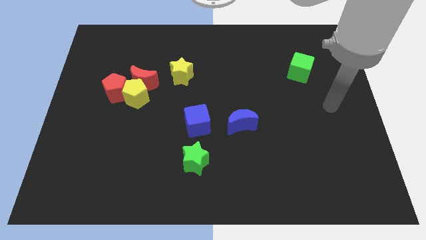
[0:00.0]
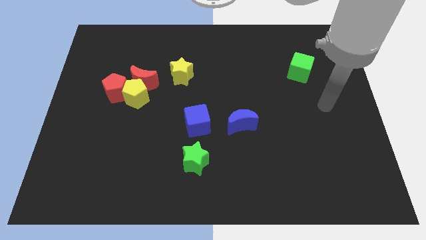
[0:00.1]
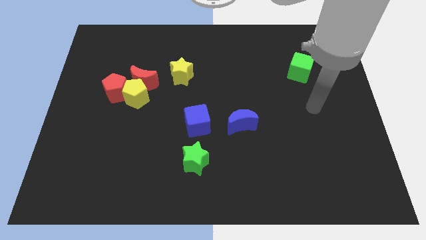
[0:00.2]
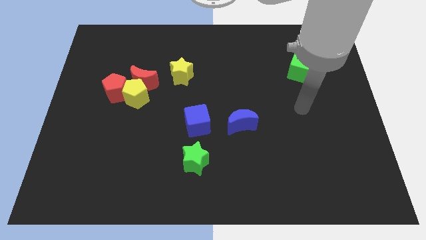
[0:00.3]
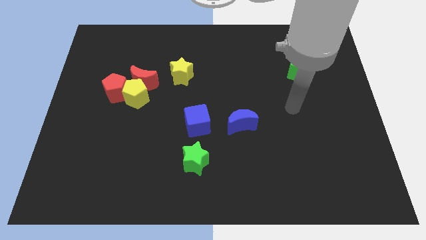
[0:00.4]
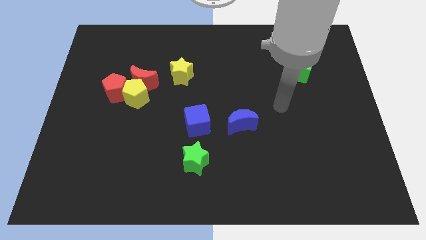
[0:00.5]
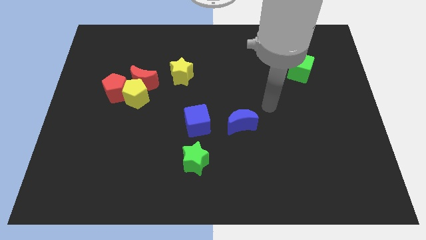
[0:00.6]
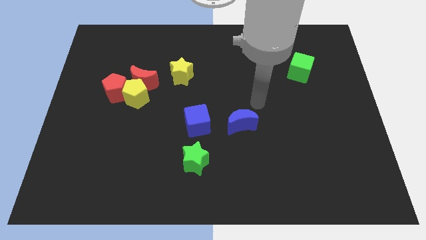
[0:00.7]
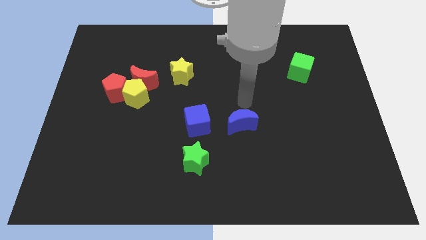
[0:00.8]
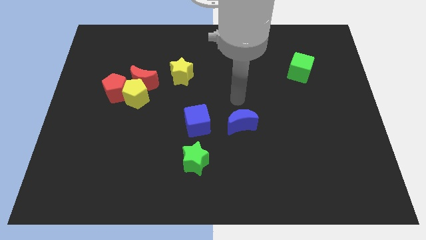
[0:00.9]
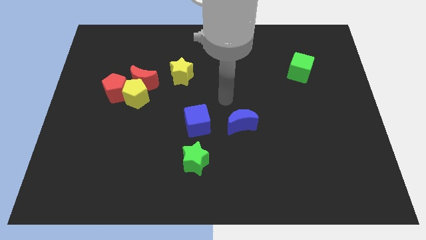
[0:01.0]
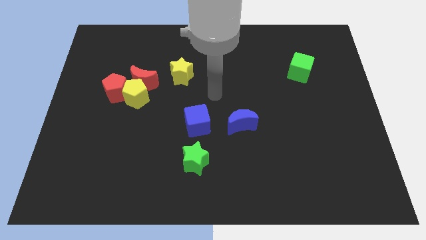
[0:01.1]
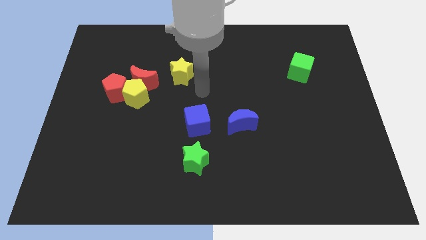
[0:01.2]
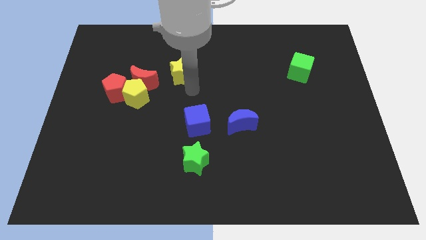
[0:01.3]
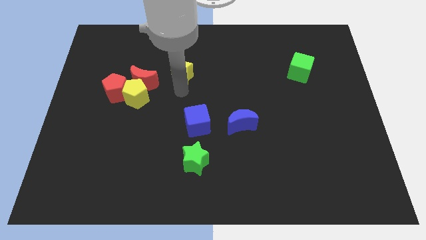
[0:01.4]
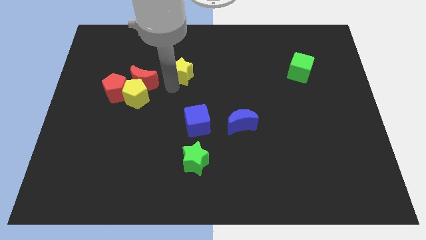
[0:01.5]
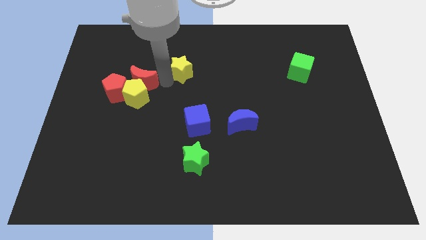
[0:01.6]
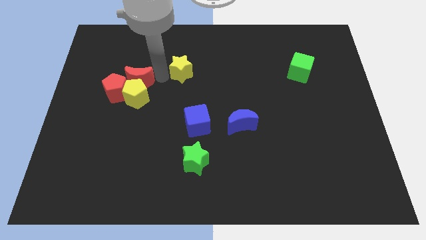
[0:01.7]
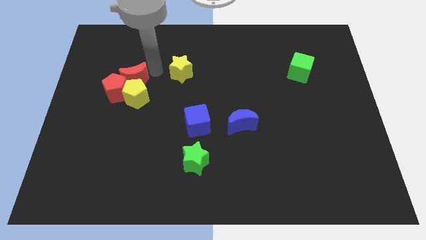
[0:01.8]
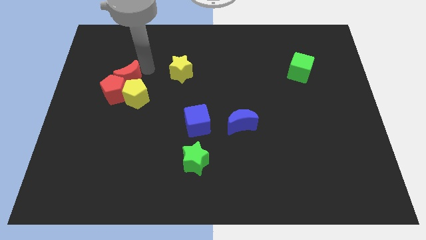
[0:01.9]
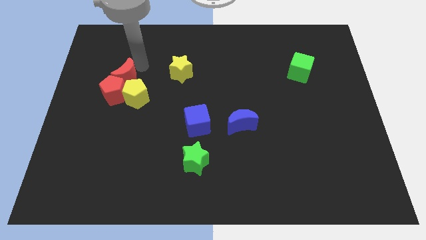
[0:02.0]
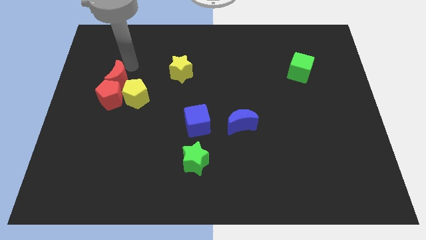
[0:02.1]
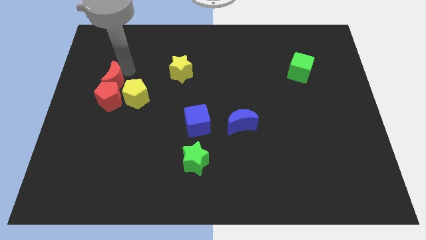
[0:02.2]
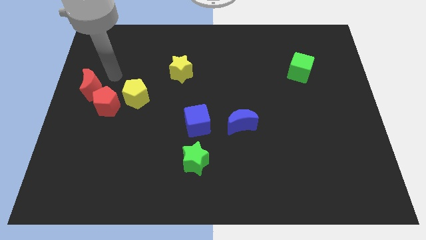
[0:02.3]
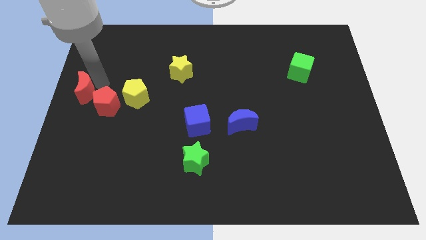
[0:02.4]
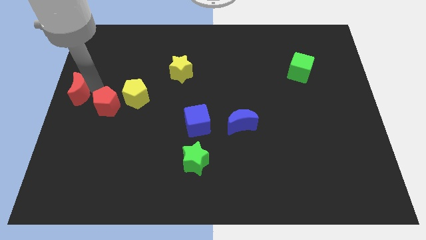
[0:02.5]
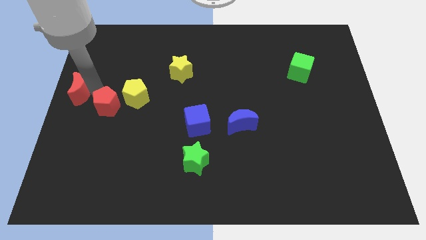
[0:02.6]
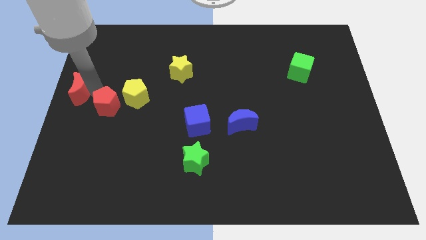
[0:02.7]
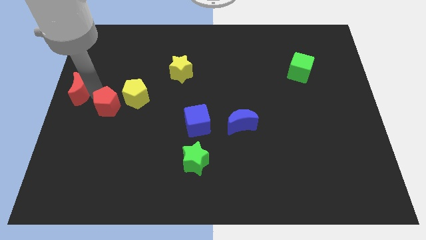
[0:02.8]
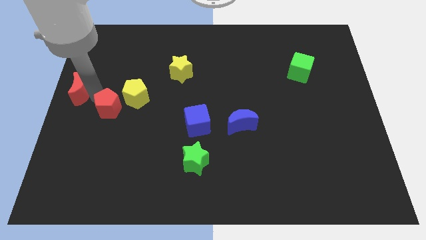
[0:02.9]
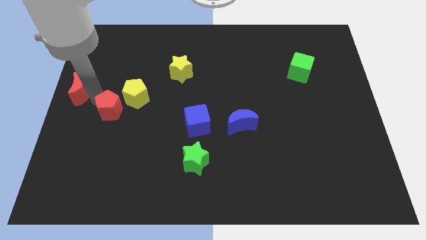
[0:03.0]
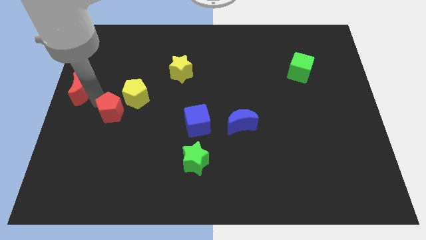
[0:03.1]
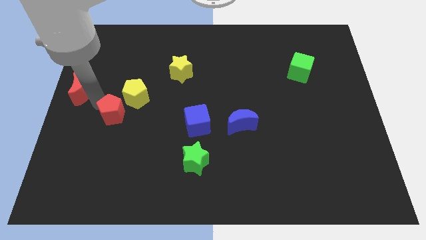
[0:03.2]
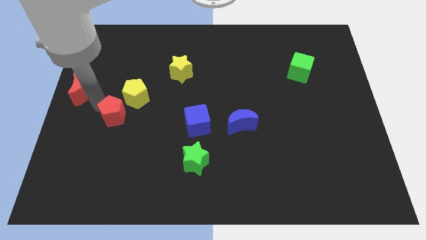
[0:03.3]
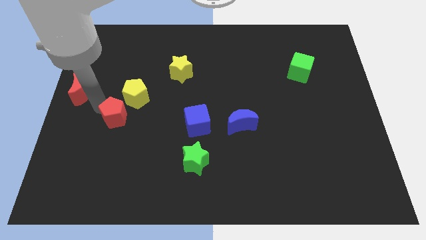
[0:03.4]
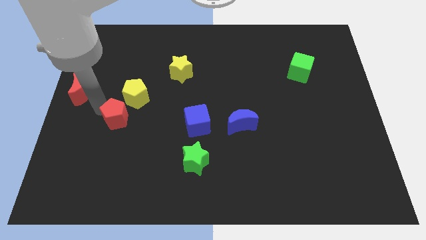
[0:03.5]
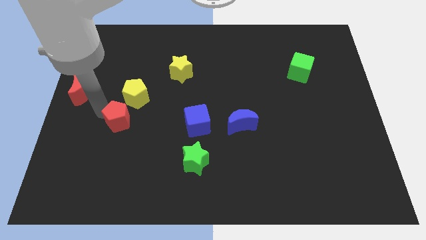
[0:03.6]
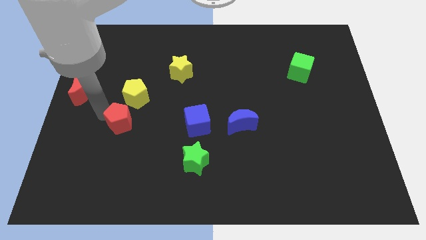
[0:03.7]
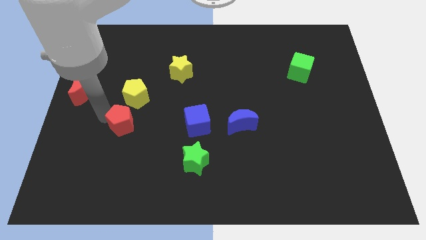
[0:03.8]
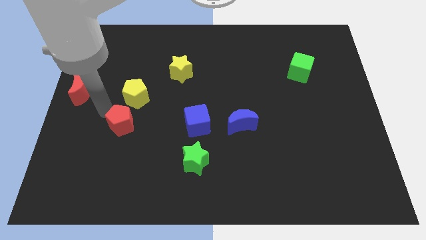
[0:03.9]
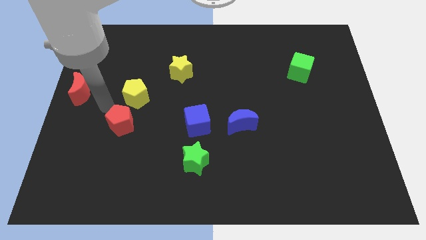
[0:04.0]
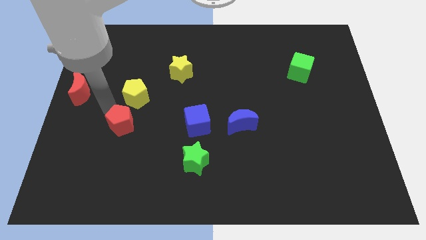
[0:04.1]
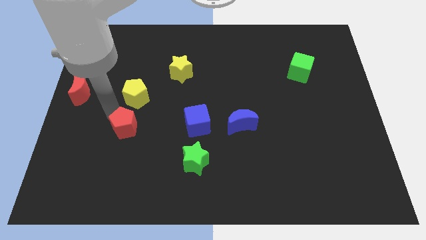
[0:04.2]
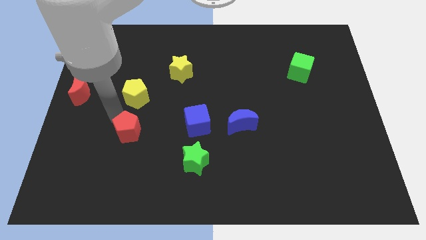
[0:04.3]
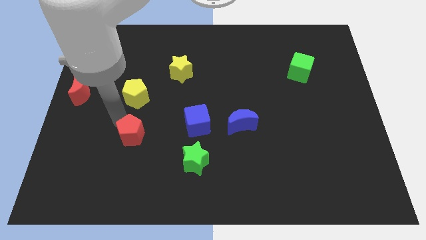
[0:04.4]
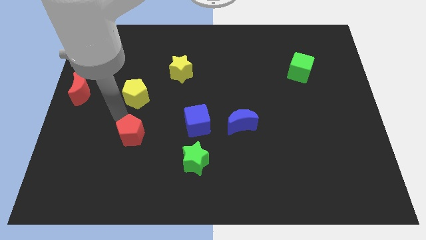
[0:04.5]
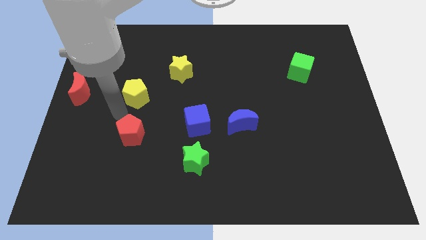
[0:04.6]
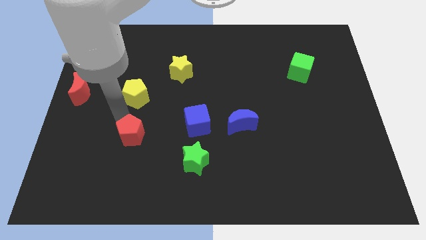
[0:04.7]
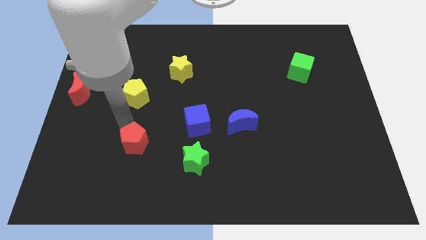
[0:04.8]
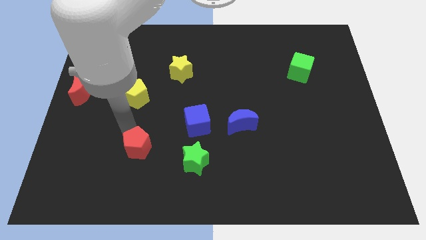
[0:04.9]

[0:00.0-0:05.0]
slide the red pentagon just left of the green star

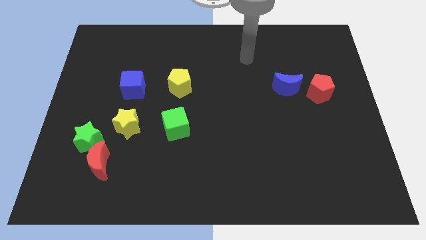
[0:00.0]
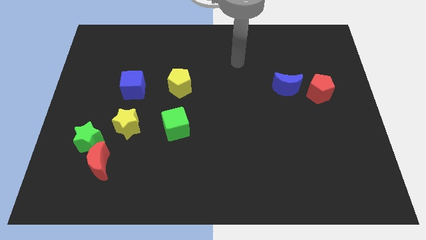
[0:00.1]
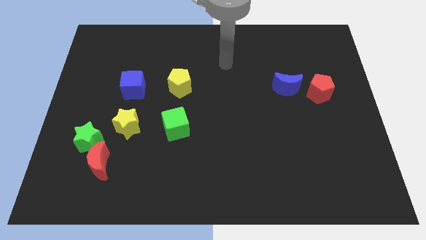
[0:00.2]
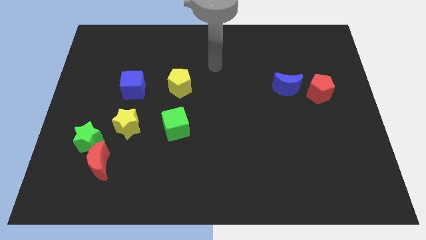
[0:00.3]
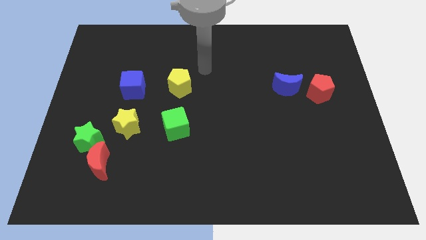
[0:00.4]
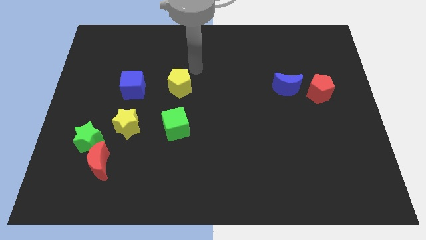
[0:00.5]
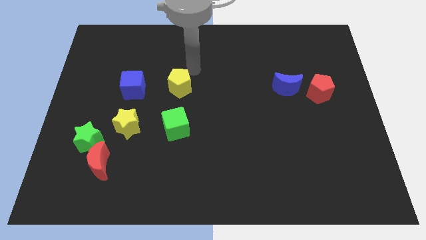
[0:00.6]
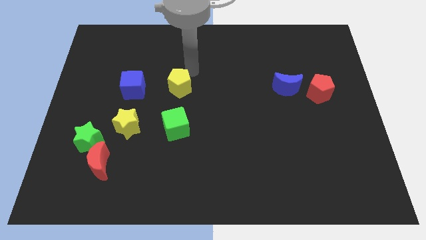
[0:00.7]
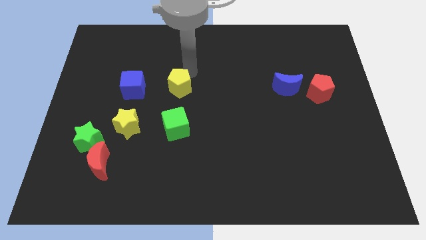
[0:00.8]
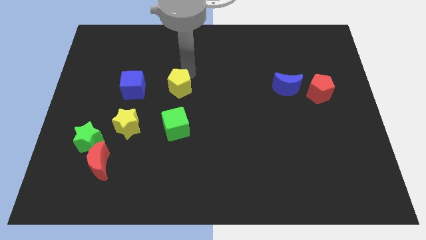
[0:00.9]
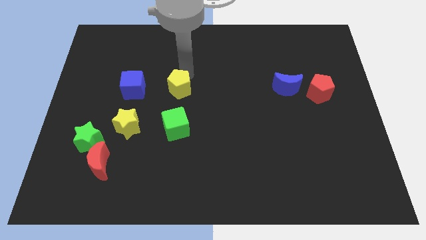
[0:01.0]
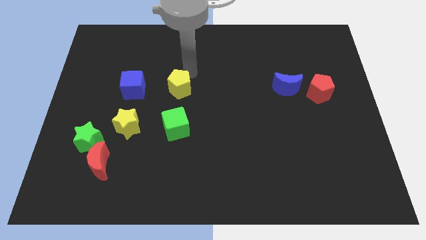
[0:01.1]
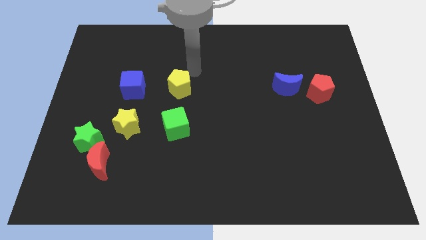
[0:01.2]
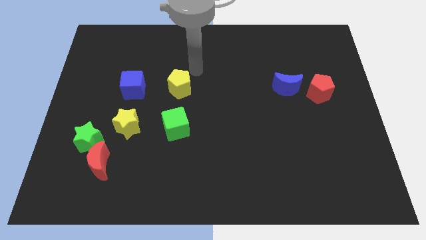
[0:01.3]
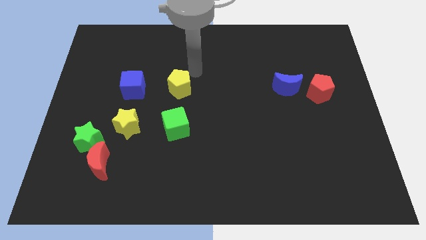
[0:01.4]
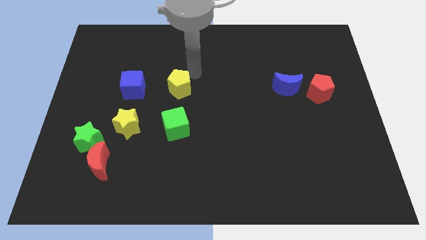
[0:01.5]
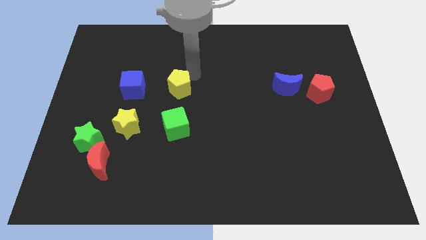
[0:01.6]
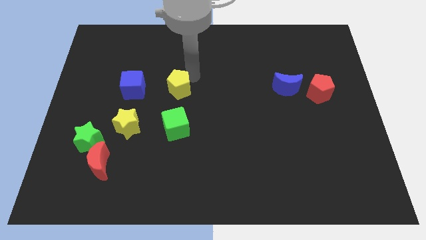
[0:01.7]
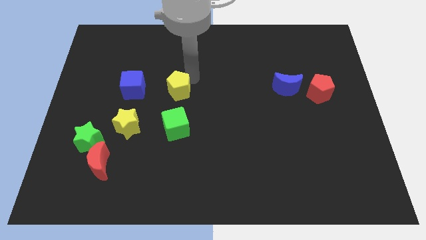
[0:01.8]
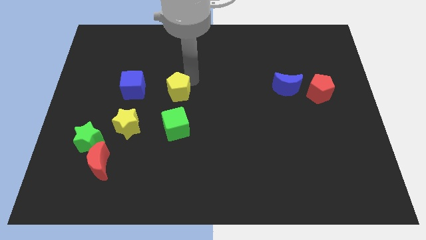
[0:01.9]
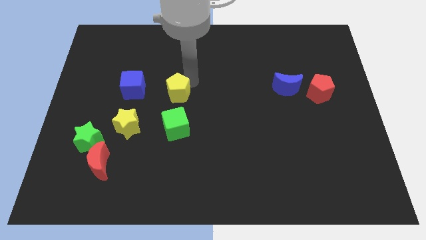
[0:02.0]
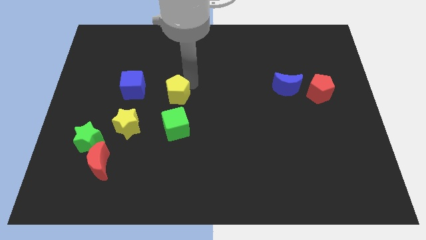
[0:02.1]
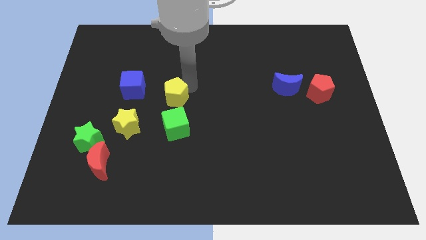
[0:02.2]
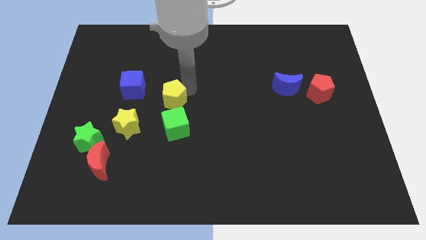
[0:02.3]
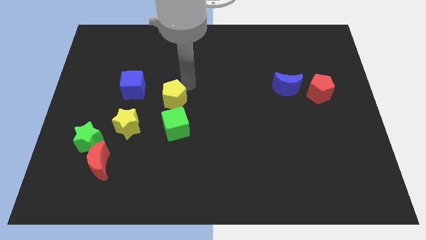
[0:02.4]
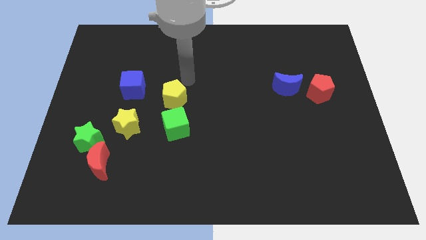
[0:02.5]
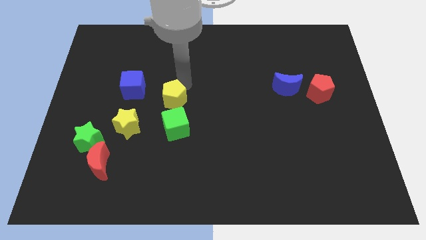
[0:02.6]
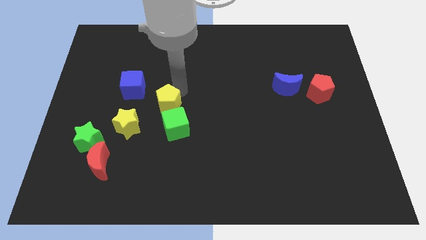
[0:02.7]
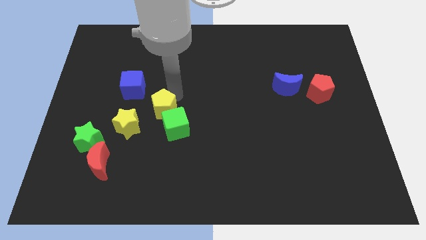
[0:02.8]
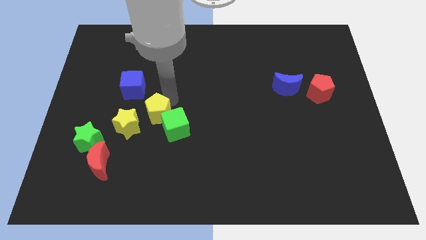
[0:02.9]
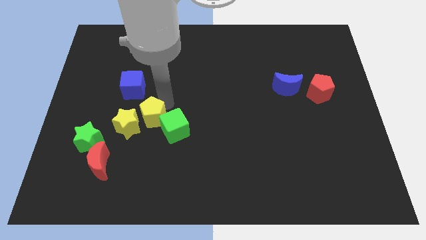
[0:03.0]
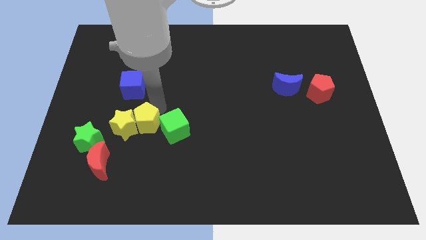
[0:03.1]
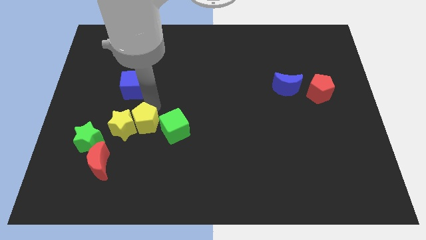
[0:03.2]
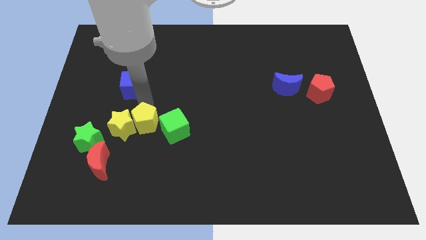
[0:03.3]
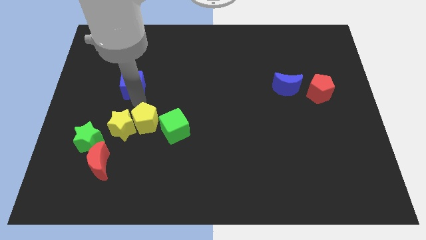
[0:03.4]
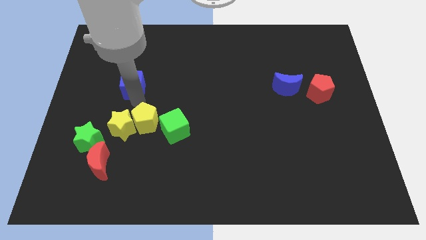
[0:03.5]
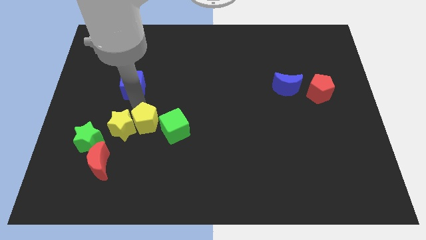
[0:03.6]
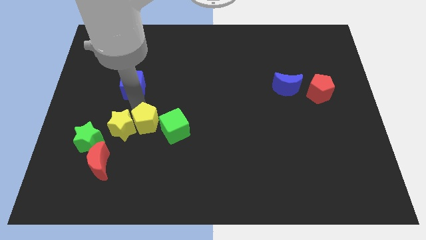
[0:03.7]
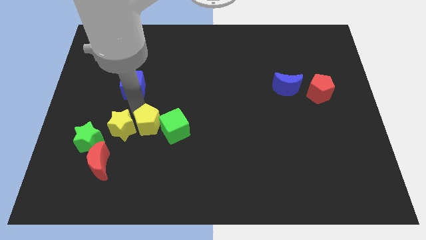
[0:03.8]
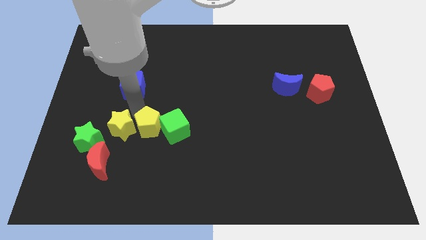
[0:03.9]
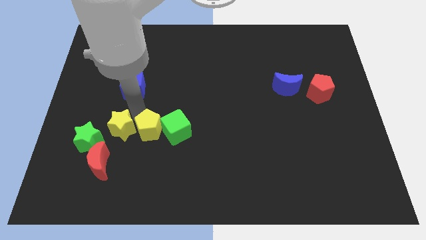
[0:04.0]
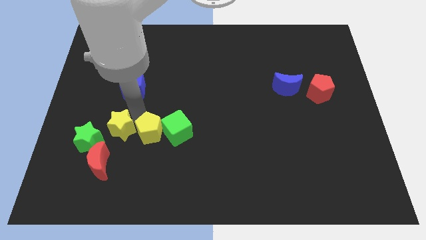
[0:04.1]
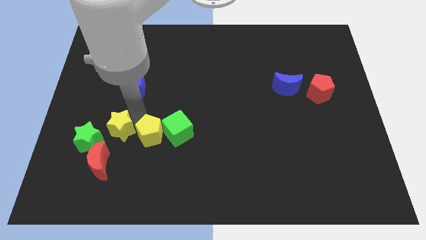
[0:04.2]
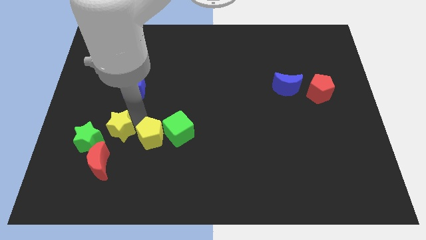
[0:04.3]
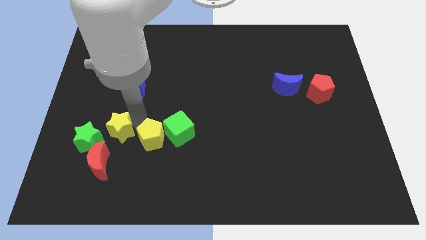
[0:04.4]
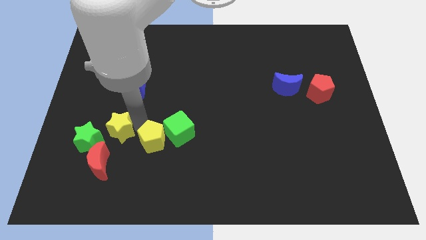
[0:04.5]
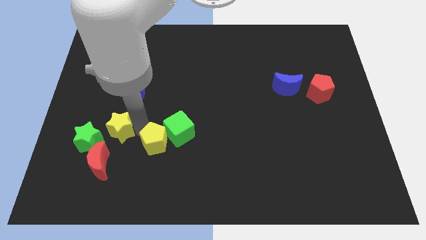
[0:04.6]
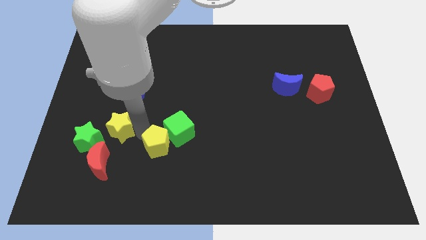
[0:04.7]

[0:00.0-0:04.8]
push the yellow pentagon to the bottom side of the green cube
